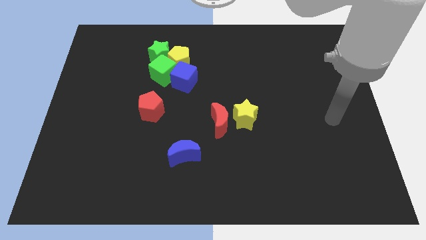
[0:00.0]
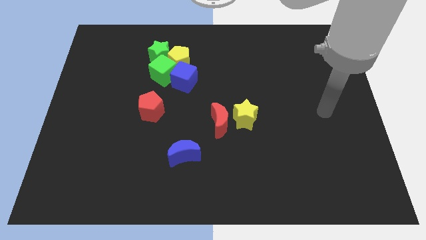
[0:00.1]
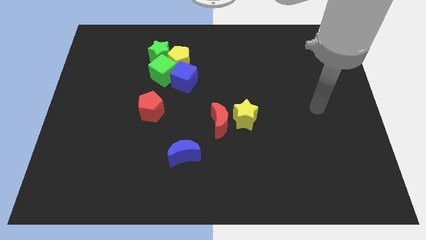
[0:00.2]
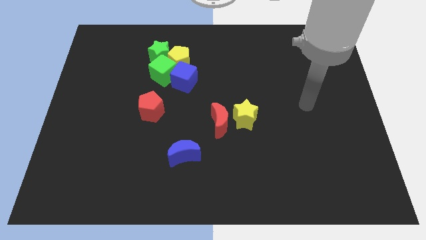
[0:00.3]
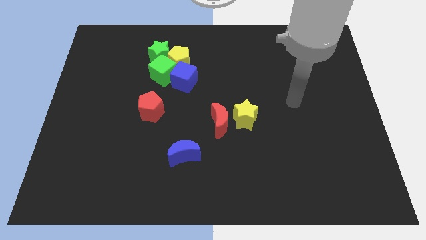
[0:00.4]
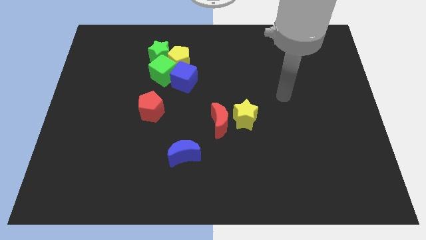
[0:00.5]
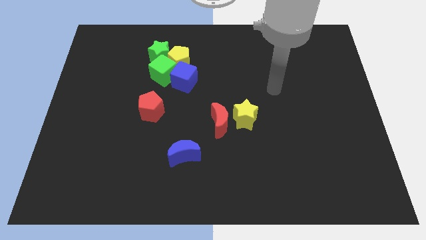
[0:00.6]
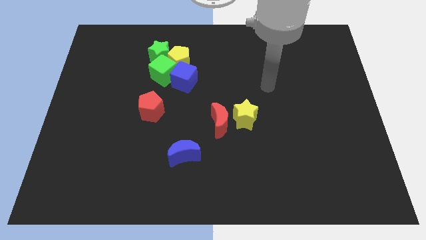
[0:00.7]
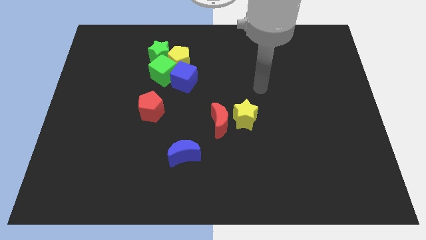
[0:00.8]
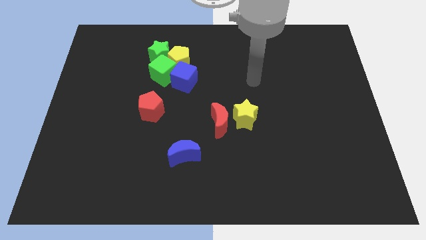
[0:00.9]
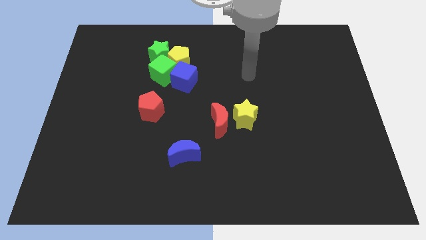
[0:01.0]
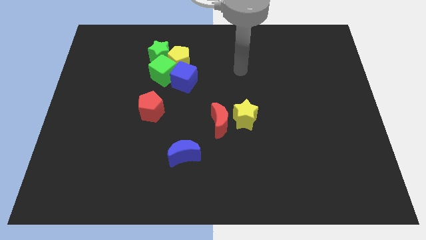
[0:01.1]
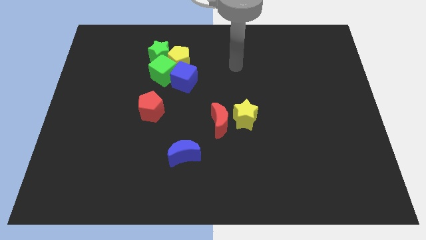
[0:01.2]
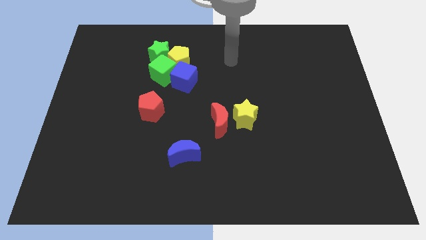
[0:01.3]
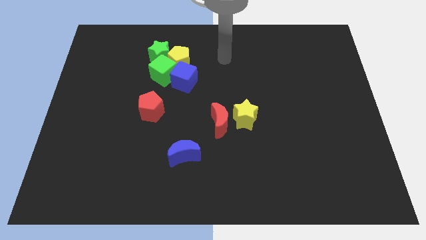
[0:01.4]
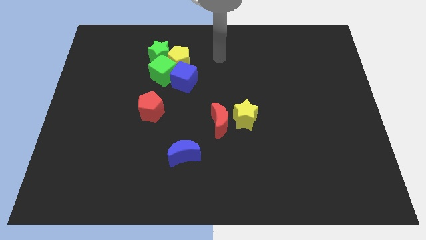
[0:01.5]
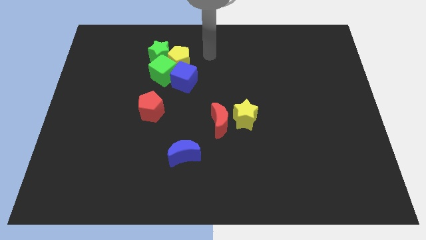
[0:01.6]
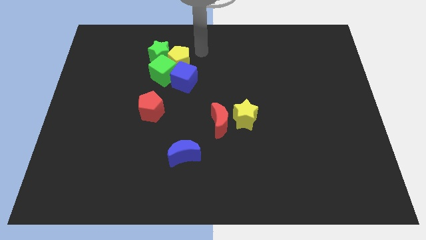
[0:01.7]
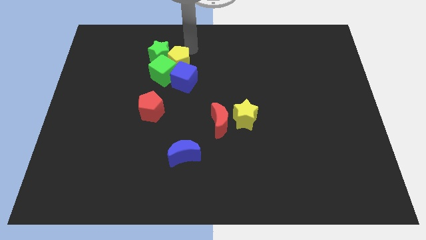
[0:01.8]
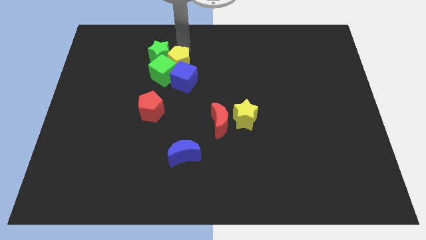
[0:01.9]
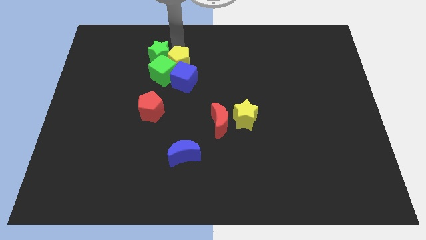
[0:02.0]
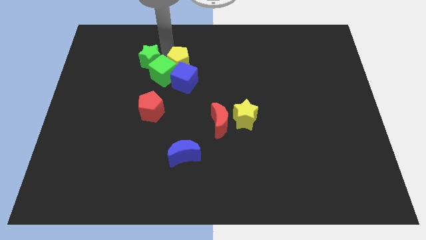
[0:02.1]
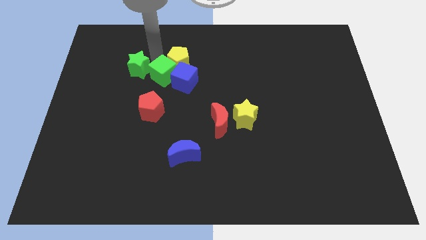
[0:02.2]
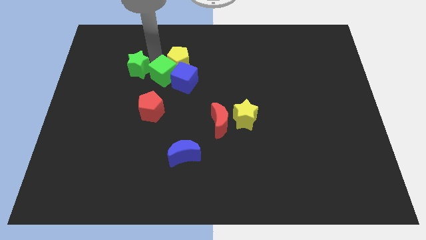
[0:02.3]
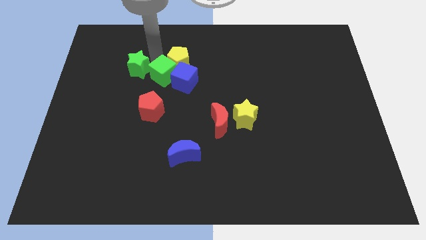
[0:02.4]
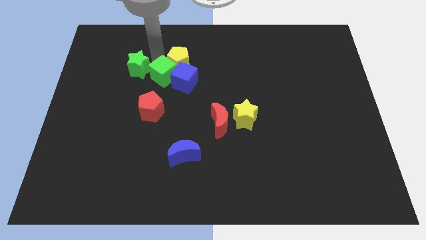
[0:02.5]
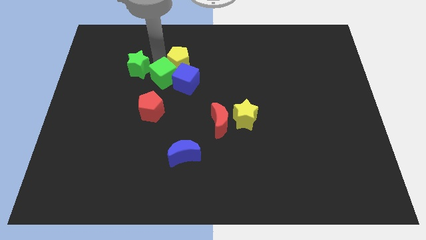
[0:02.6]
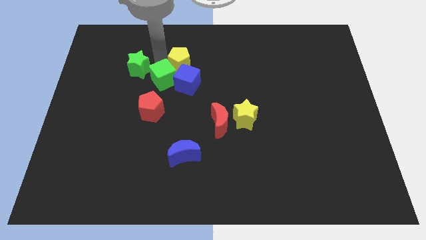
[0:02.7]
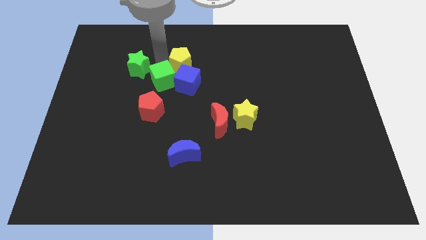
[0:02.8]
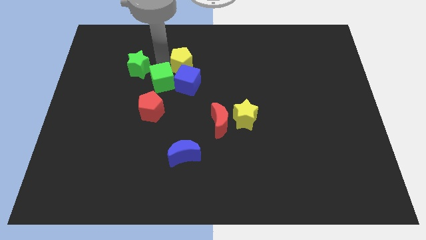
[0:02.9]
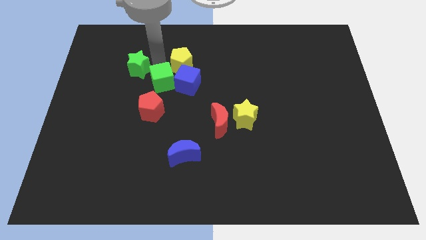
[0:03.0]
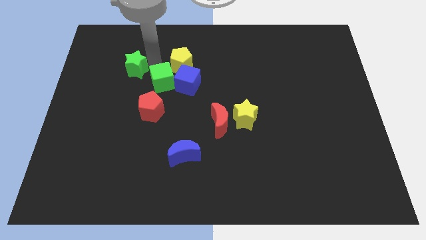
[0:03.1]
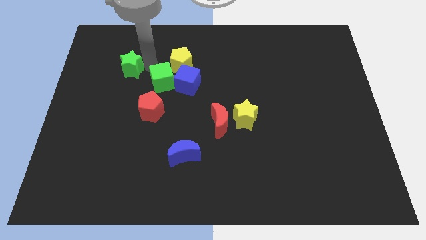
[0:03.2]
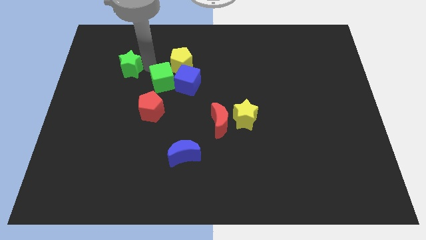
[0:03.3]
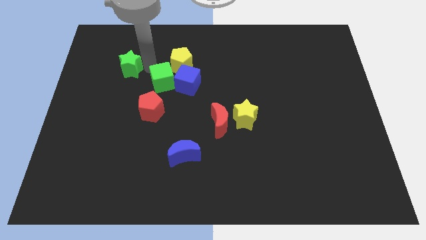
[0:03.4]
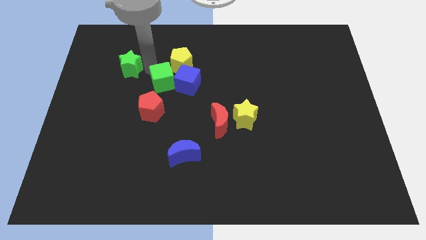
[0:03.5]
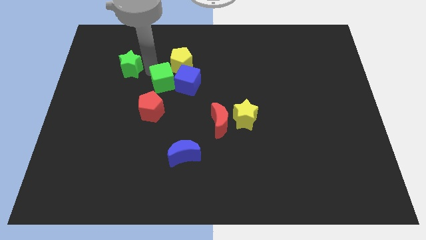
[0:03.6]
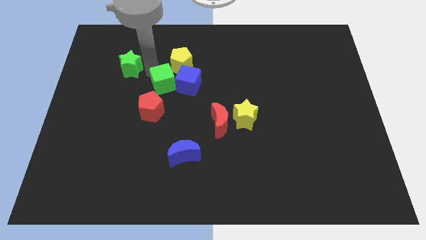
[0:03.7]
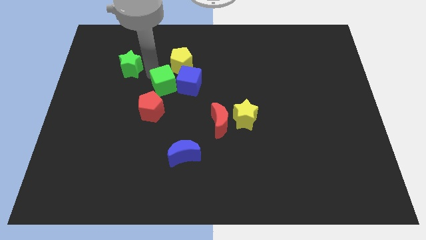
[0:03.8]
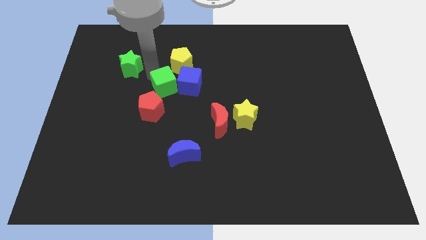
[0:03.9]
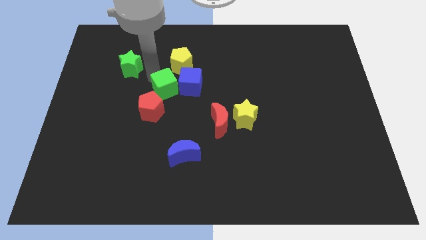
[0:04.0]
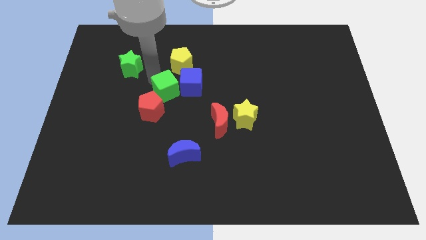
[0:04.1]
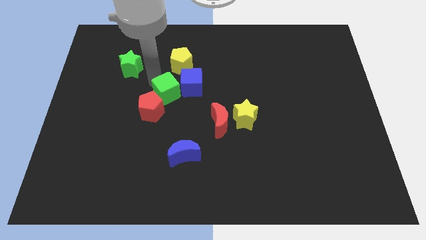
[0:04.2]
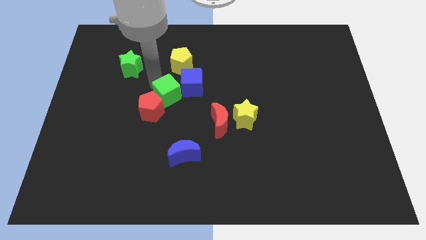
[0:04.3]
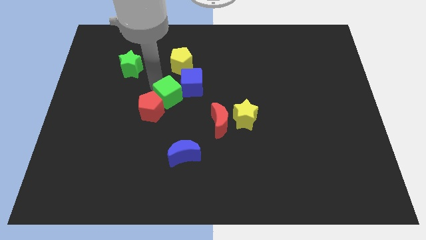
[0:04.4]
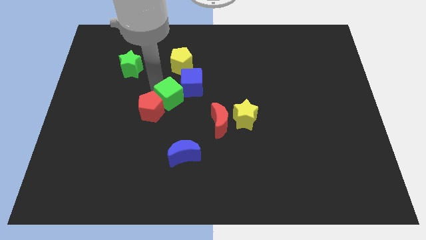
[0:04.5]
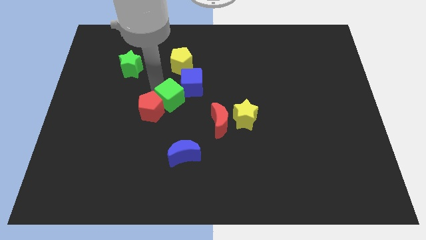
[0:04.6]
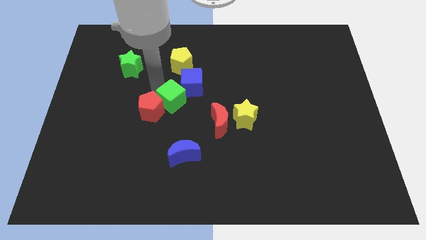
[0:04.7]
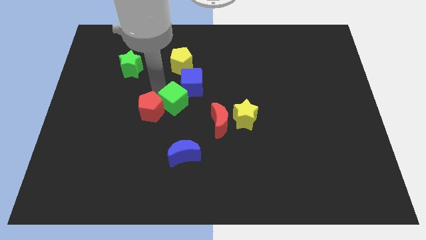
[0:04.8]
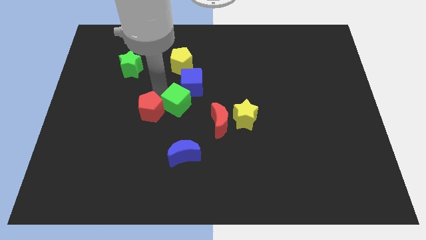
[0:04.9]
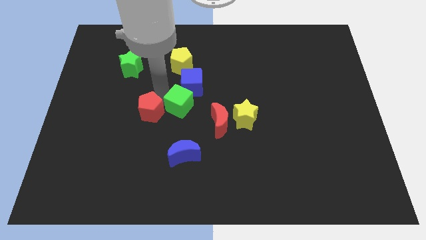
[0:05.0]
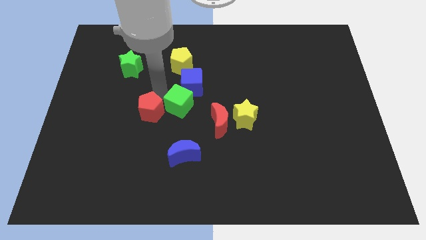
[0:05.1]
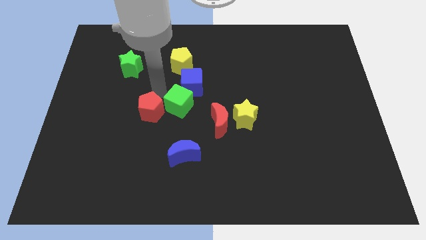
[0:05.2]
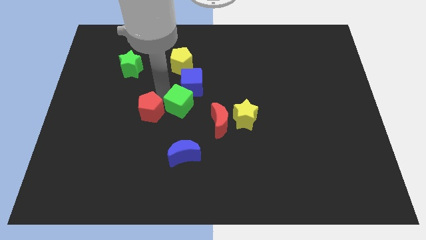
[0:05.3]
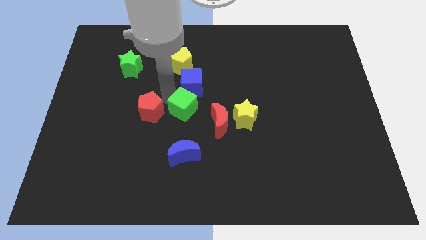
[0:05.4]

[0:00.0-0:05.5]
push the green cube to the left of the yellow star

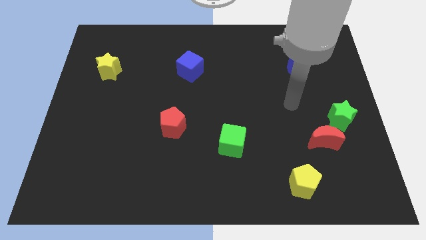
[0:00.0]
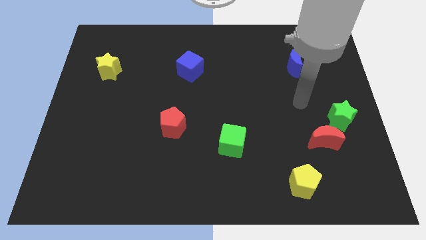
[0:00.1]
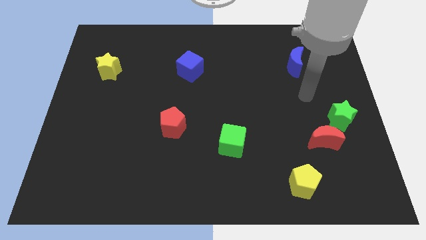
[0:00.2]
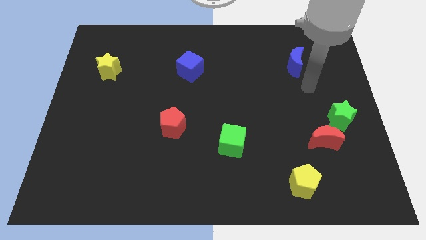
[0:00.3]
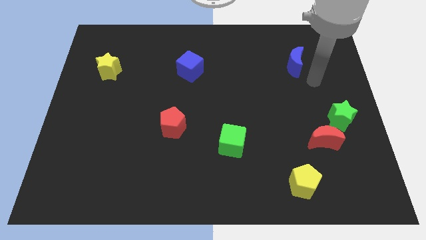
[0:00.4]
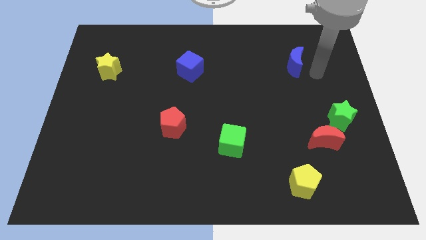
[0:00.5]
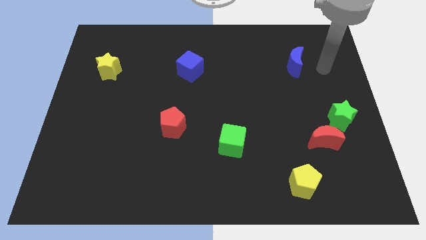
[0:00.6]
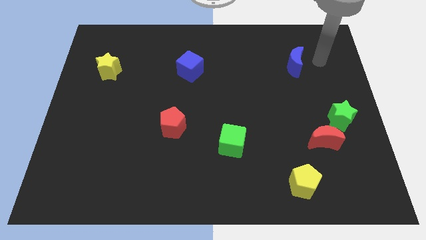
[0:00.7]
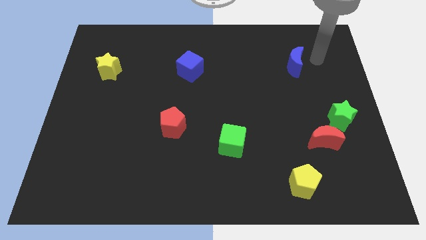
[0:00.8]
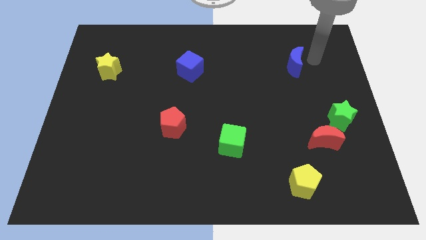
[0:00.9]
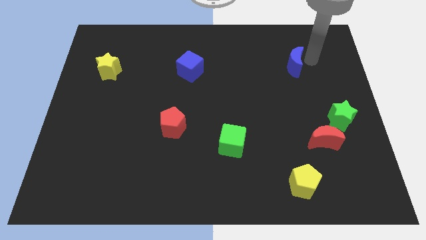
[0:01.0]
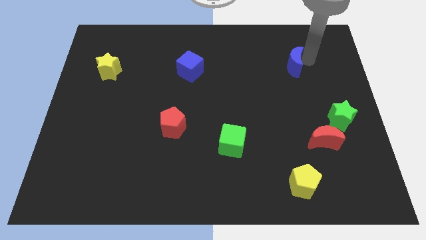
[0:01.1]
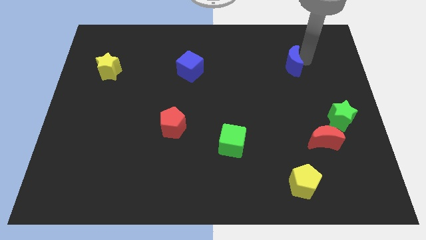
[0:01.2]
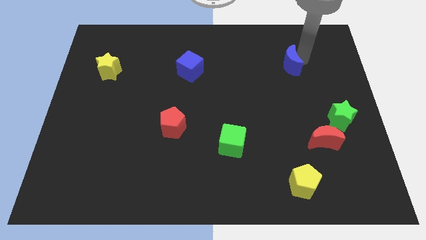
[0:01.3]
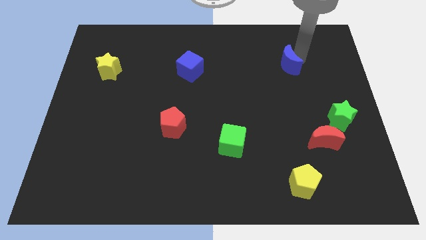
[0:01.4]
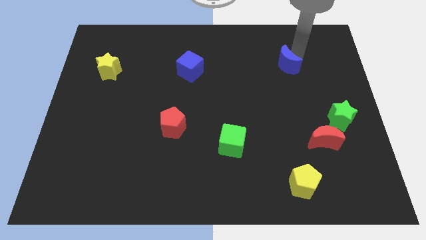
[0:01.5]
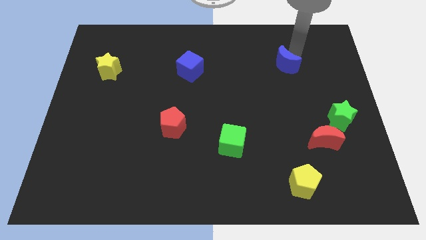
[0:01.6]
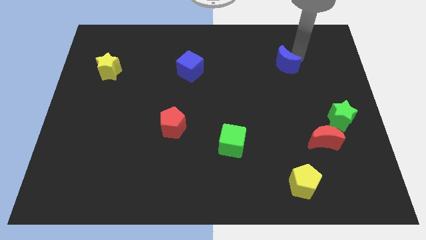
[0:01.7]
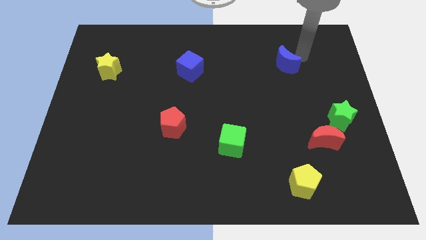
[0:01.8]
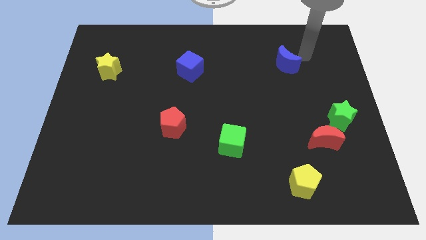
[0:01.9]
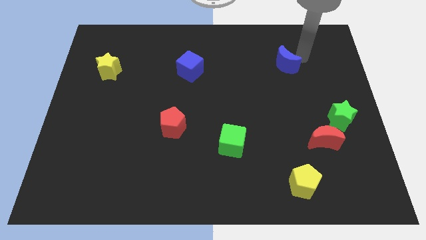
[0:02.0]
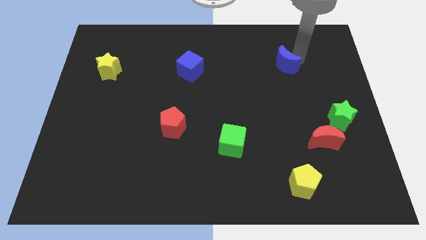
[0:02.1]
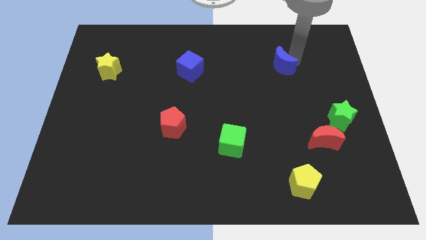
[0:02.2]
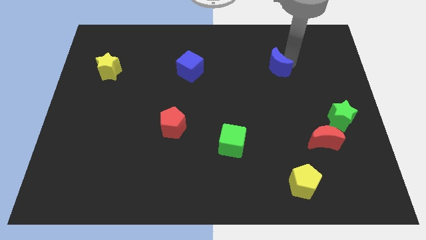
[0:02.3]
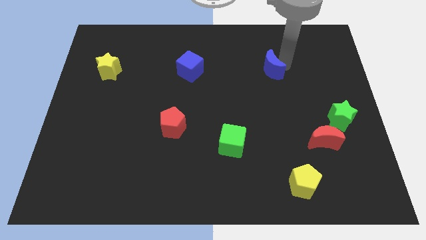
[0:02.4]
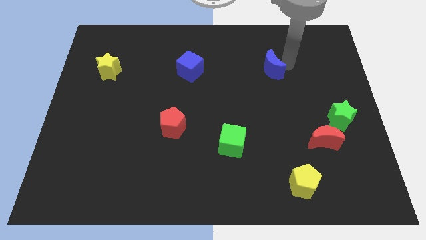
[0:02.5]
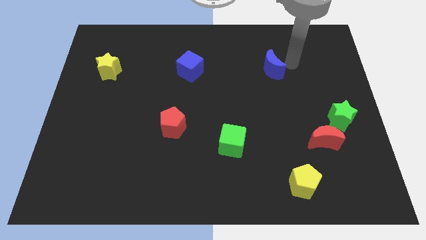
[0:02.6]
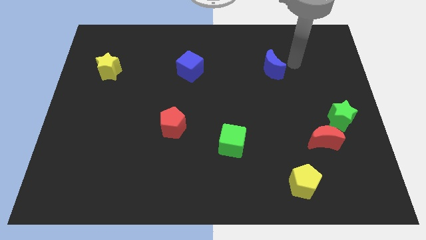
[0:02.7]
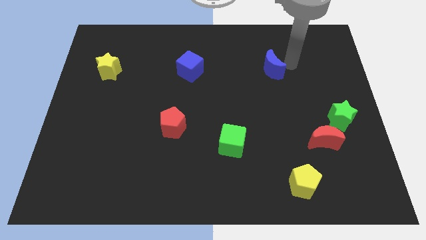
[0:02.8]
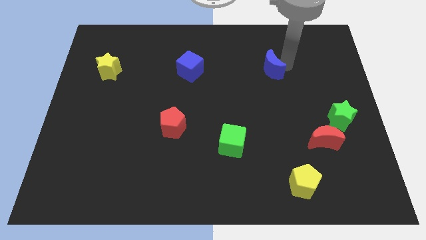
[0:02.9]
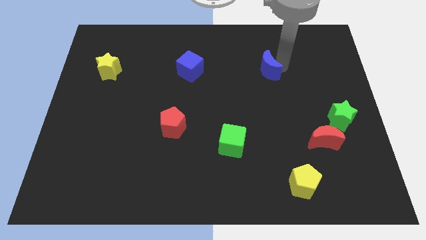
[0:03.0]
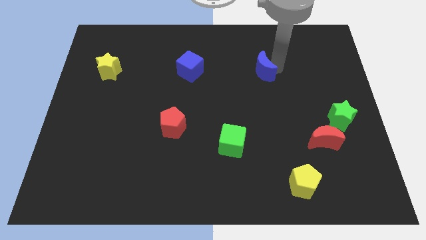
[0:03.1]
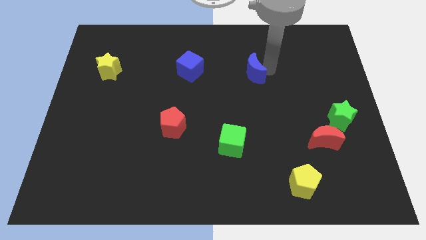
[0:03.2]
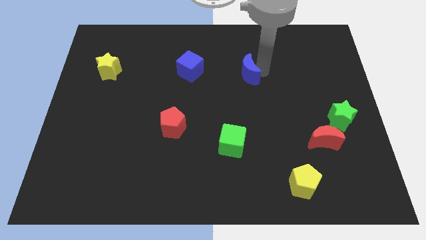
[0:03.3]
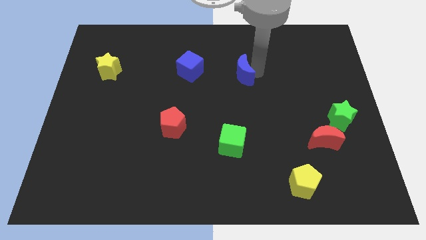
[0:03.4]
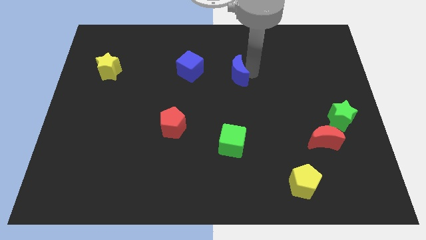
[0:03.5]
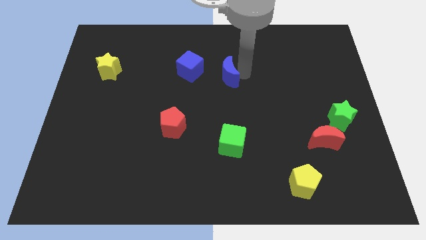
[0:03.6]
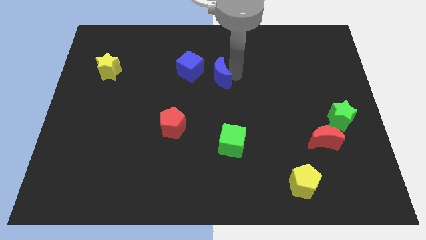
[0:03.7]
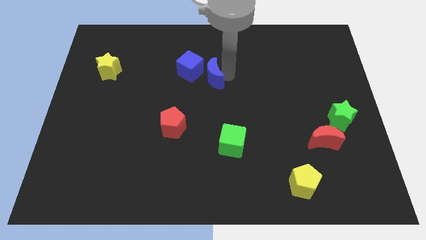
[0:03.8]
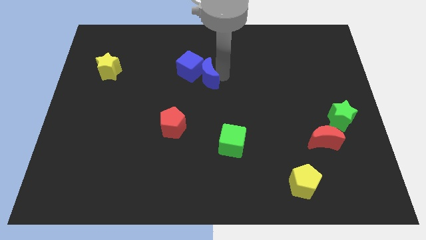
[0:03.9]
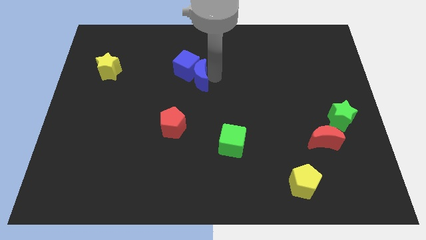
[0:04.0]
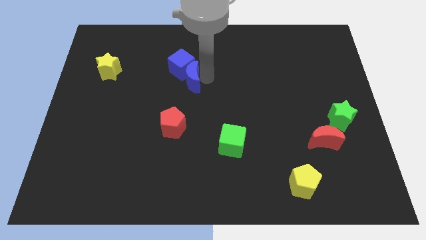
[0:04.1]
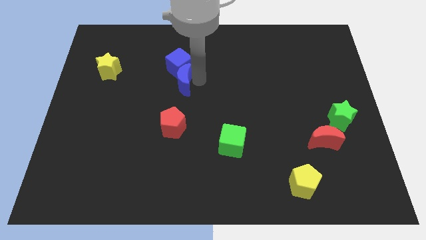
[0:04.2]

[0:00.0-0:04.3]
move the blue moon to the bottom left of the blue cube
